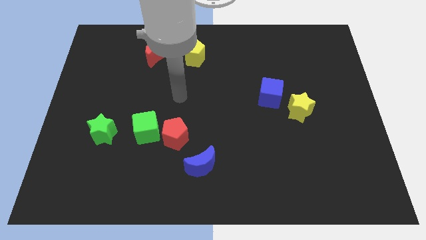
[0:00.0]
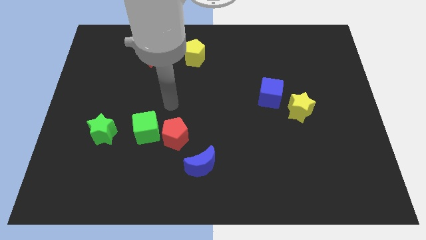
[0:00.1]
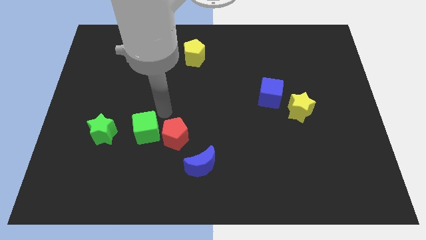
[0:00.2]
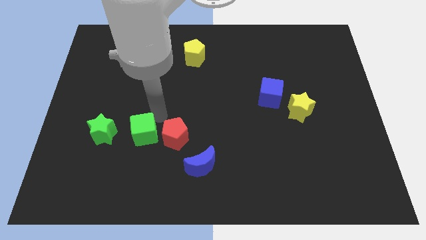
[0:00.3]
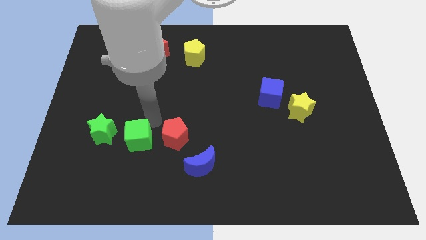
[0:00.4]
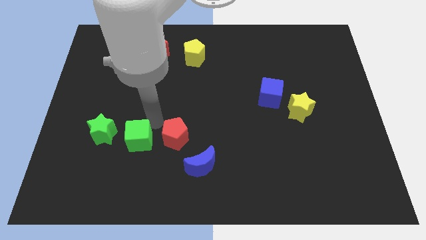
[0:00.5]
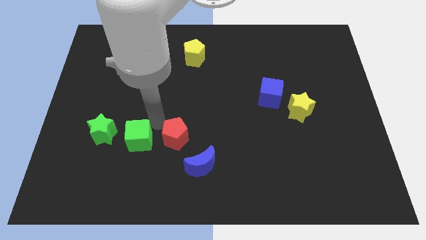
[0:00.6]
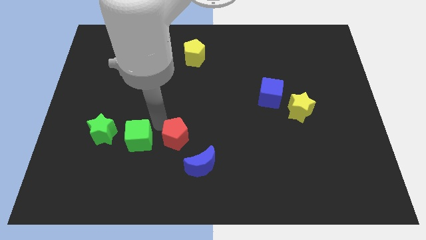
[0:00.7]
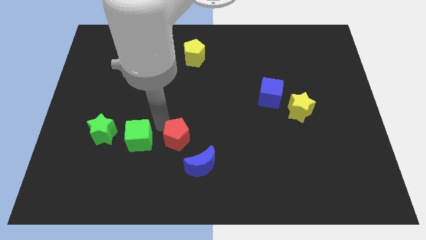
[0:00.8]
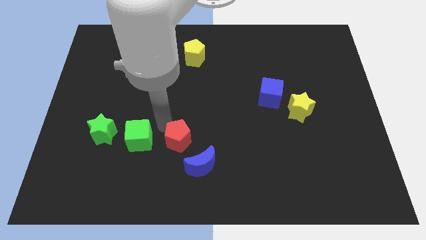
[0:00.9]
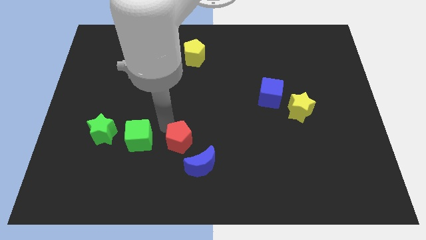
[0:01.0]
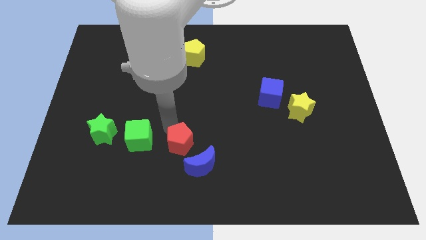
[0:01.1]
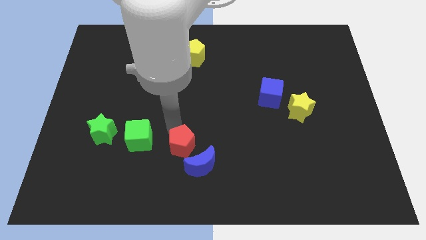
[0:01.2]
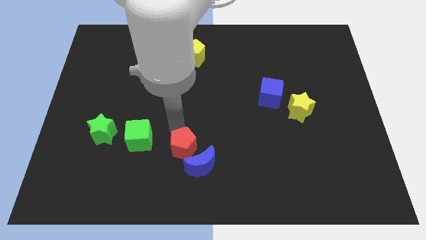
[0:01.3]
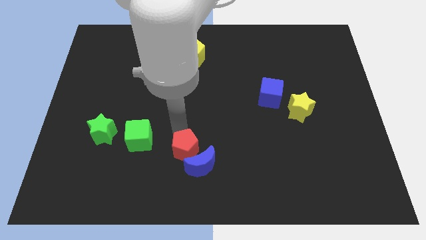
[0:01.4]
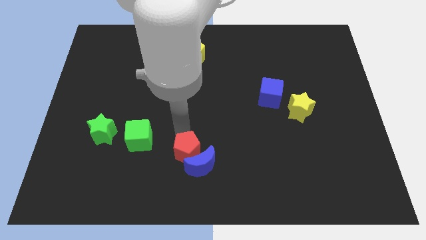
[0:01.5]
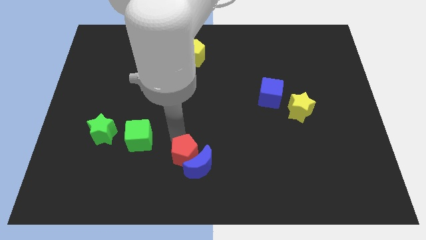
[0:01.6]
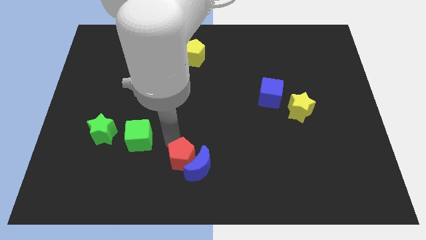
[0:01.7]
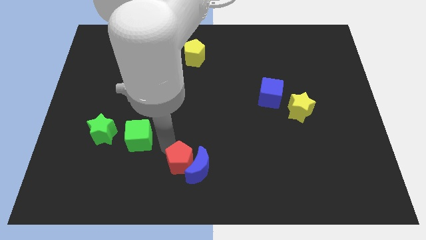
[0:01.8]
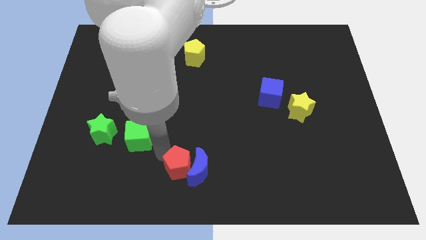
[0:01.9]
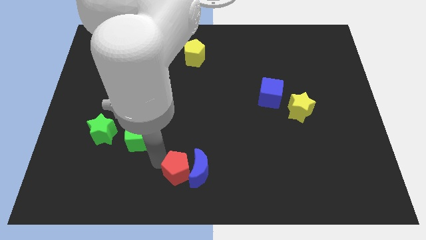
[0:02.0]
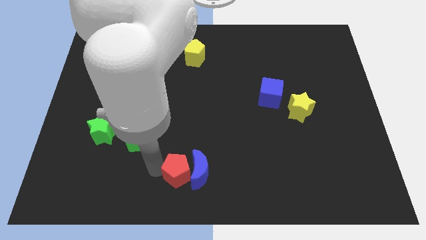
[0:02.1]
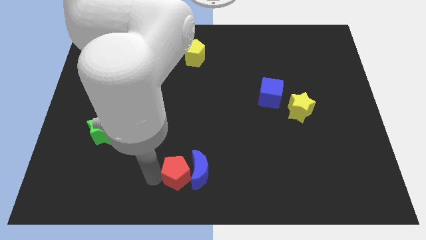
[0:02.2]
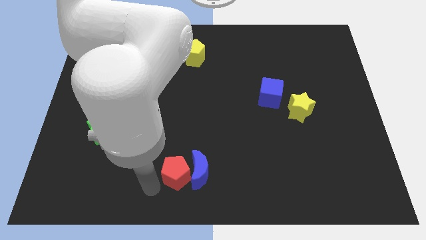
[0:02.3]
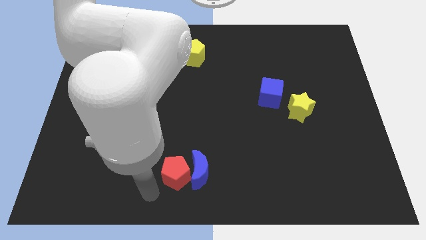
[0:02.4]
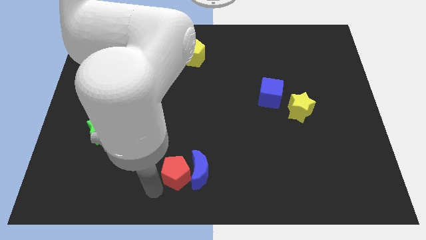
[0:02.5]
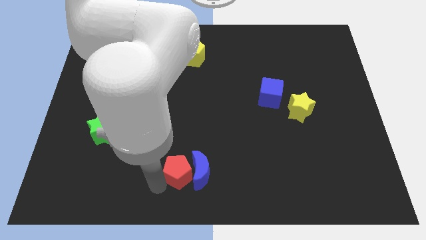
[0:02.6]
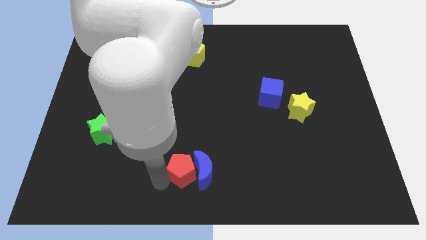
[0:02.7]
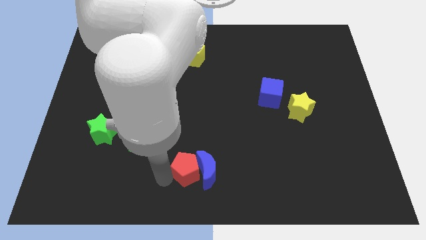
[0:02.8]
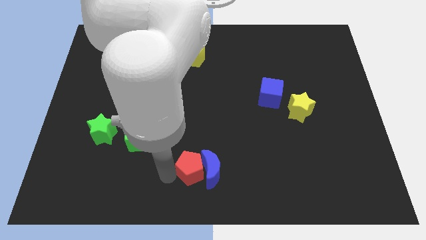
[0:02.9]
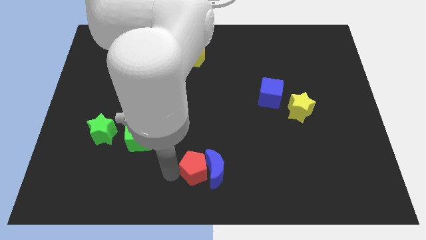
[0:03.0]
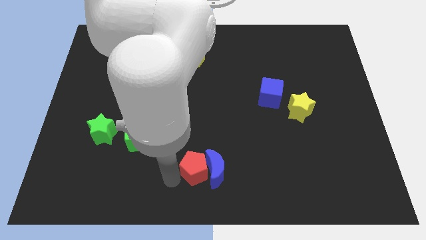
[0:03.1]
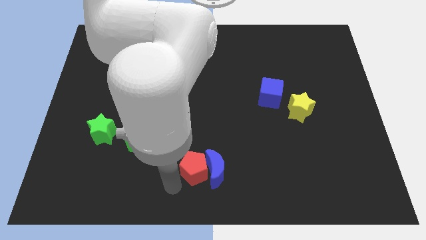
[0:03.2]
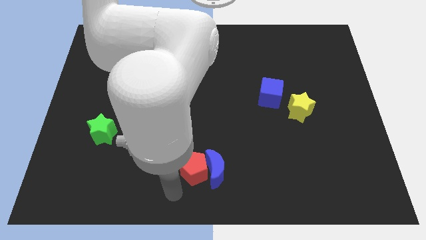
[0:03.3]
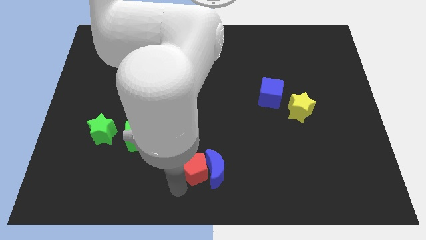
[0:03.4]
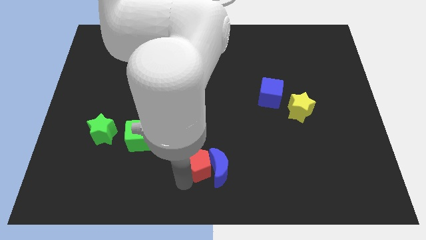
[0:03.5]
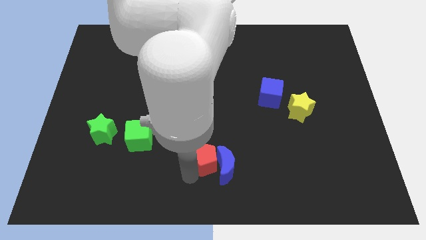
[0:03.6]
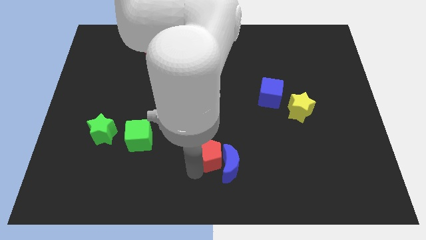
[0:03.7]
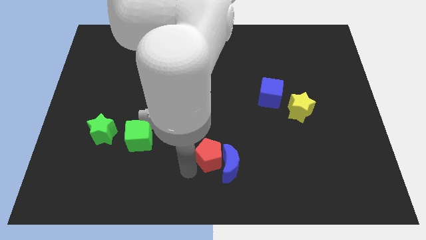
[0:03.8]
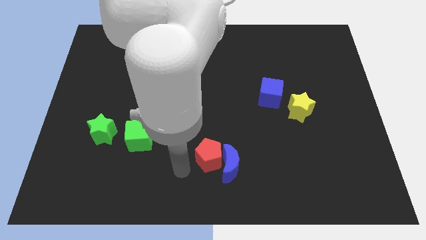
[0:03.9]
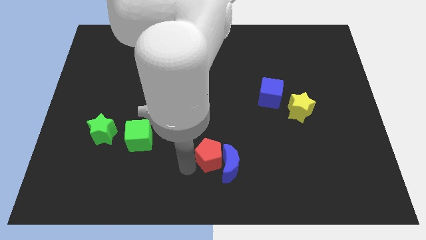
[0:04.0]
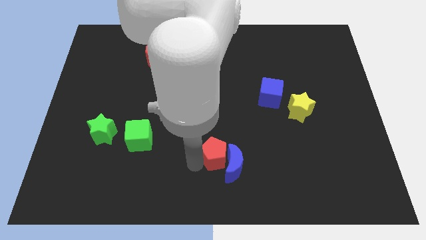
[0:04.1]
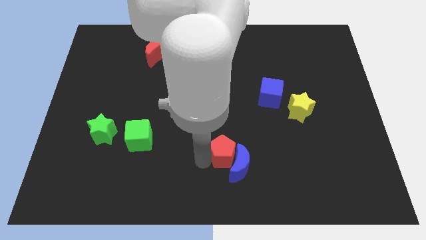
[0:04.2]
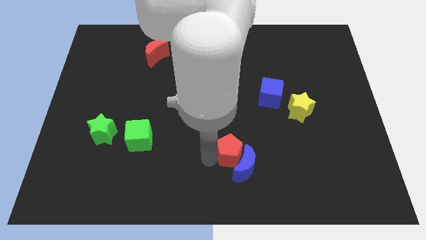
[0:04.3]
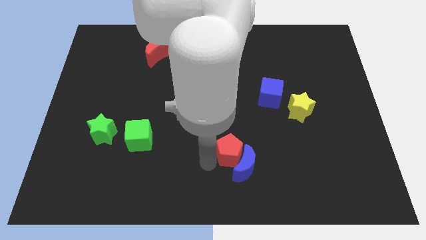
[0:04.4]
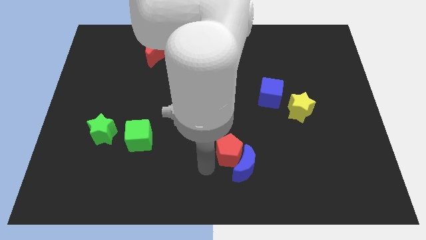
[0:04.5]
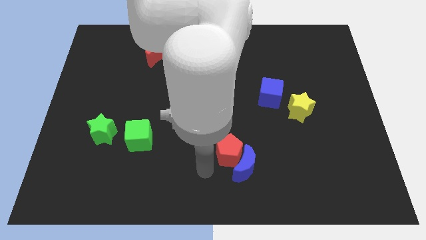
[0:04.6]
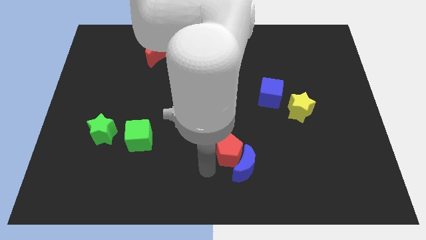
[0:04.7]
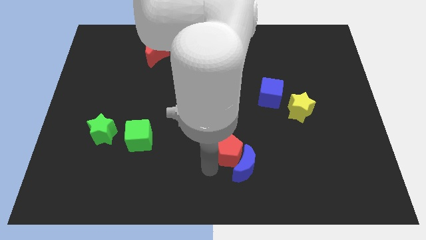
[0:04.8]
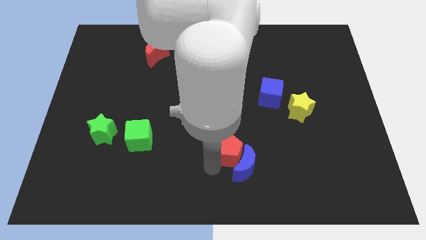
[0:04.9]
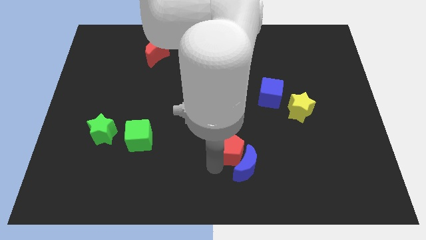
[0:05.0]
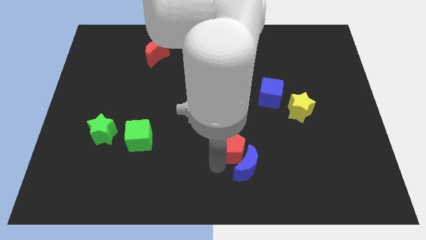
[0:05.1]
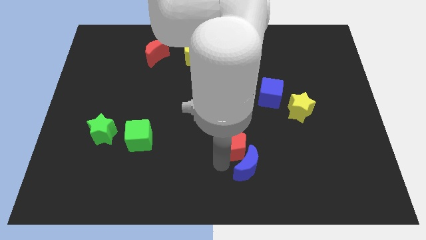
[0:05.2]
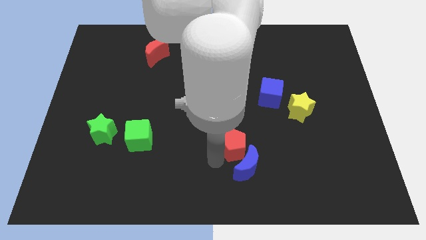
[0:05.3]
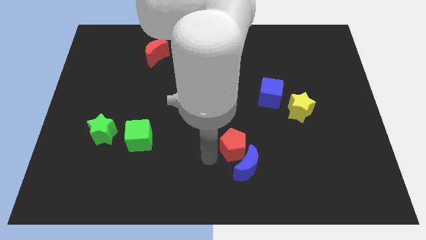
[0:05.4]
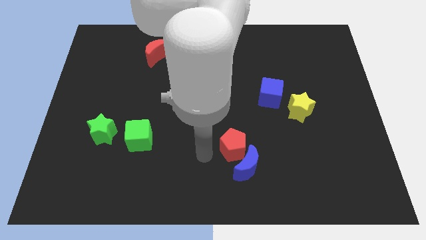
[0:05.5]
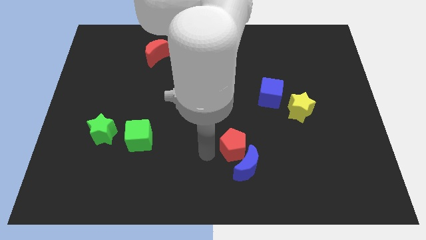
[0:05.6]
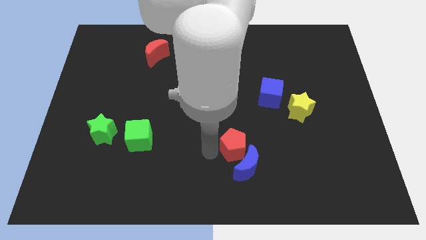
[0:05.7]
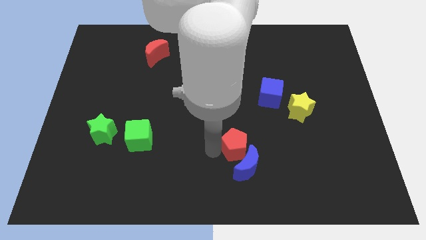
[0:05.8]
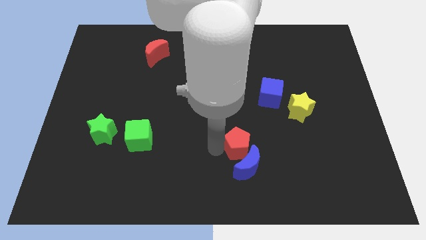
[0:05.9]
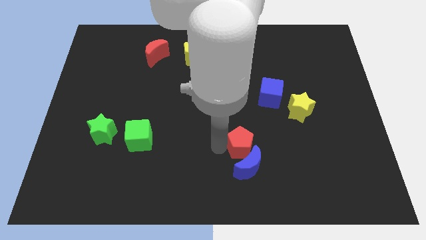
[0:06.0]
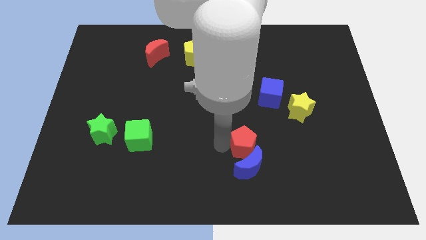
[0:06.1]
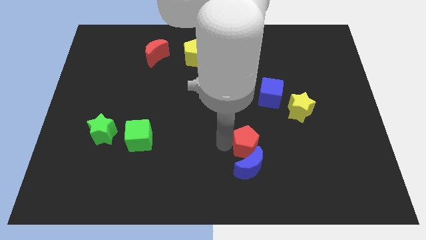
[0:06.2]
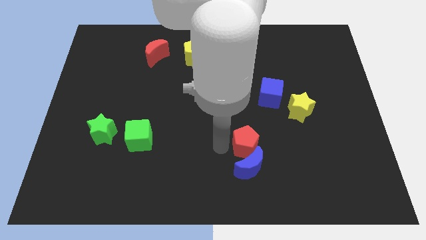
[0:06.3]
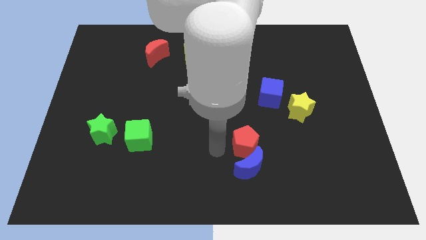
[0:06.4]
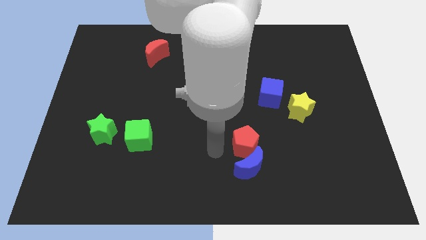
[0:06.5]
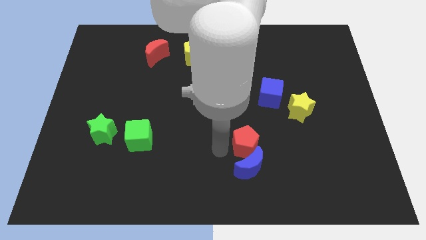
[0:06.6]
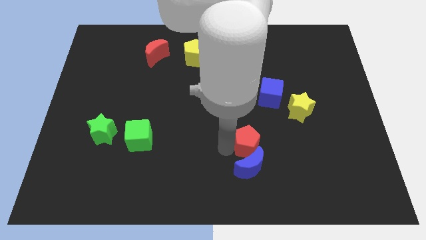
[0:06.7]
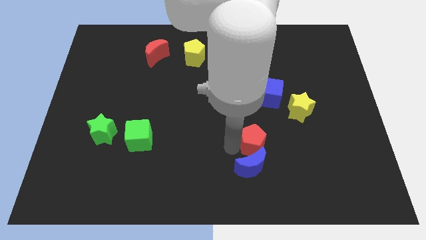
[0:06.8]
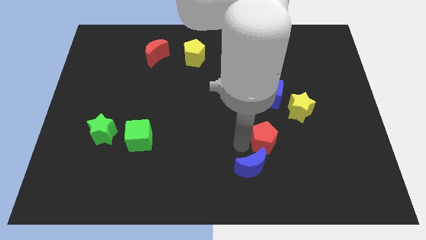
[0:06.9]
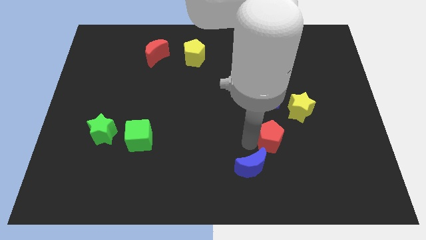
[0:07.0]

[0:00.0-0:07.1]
push the red pentagon to the right

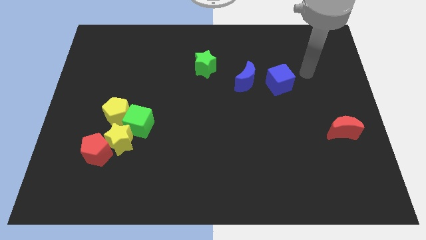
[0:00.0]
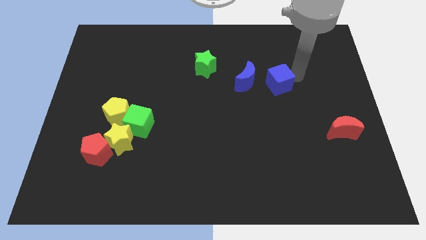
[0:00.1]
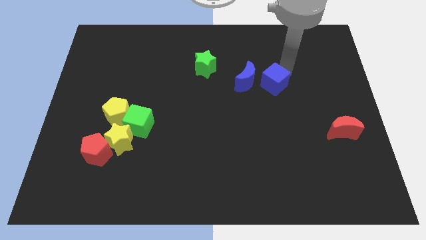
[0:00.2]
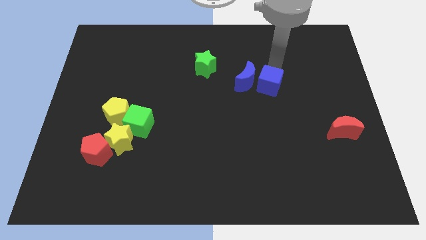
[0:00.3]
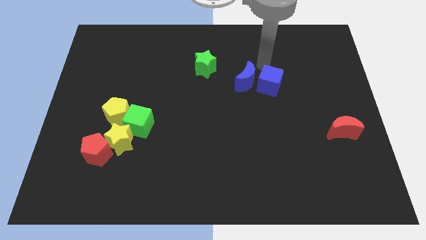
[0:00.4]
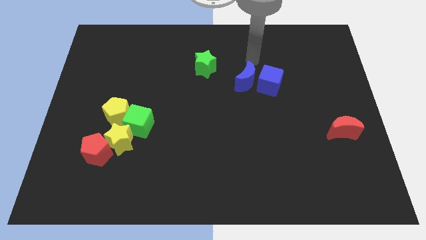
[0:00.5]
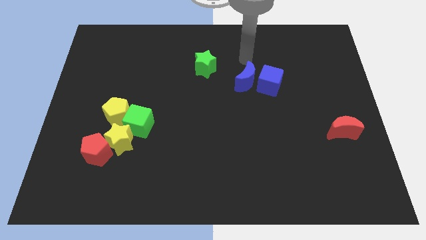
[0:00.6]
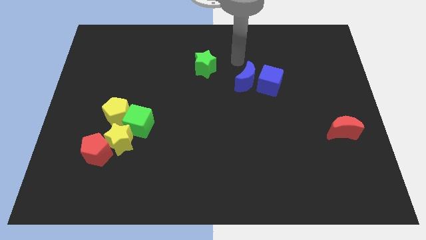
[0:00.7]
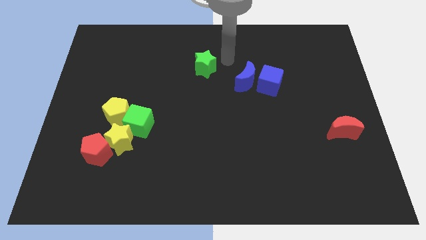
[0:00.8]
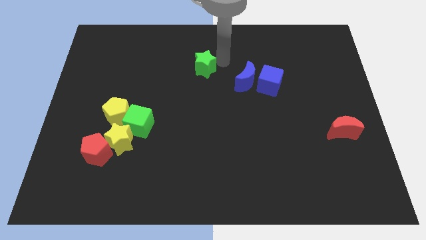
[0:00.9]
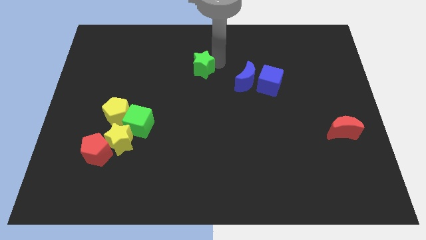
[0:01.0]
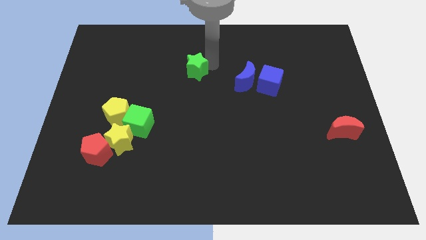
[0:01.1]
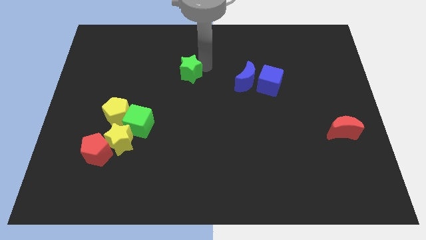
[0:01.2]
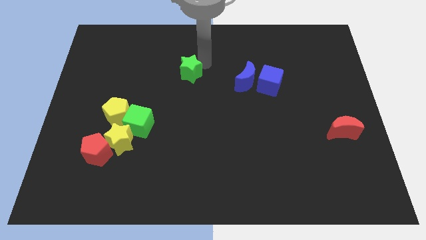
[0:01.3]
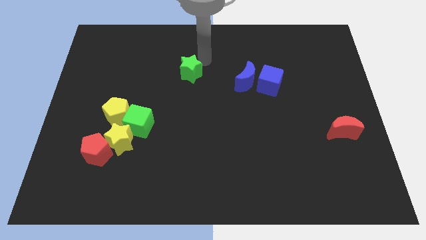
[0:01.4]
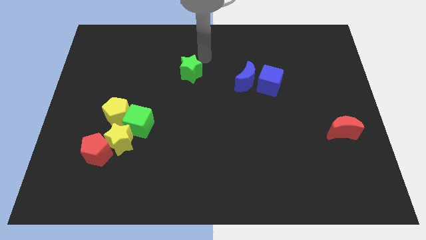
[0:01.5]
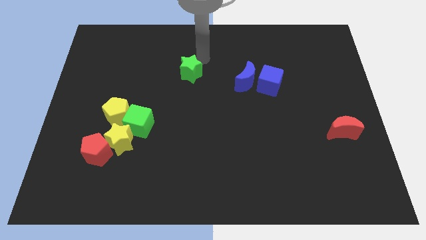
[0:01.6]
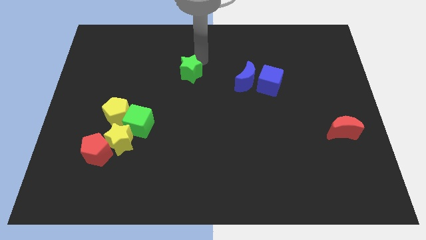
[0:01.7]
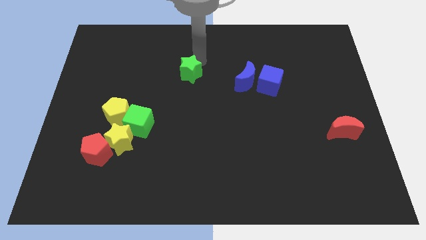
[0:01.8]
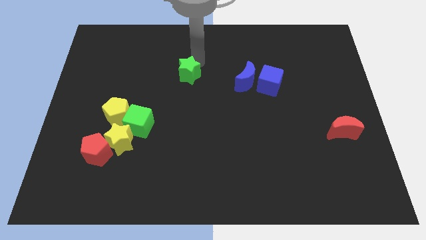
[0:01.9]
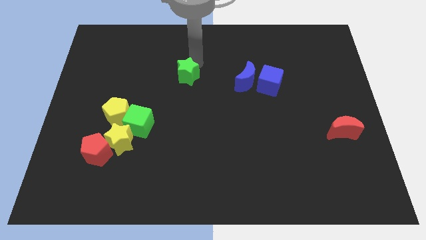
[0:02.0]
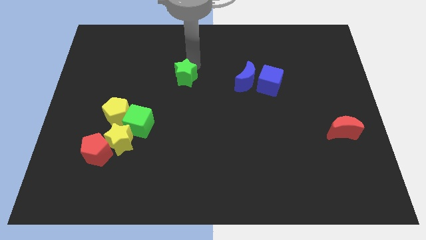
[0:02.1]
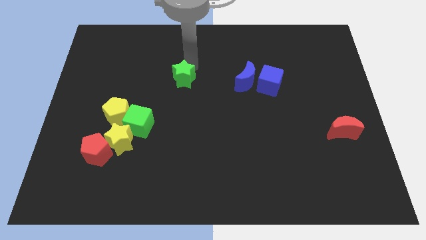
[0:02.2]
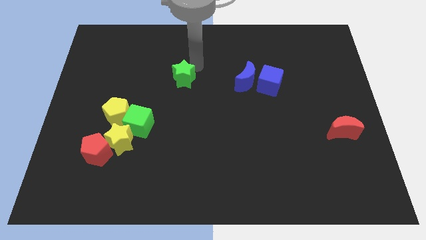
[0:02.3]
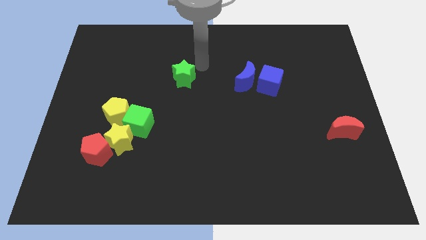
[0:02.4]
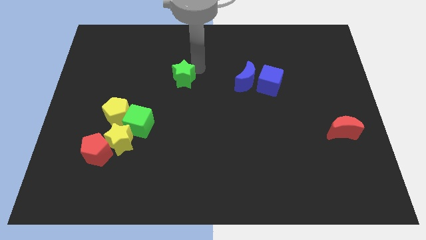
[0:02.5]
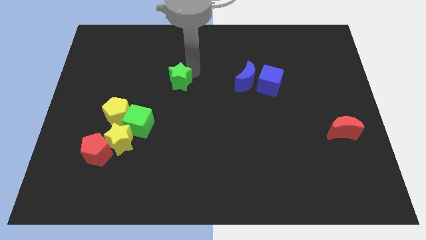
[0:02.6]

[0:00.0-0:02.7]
move the green star slightly diagonally down and to the left
